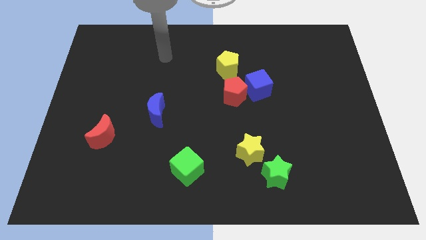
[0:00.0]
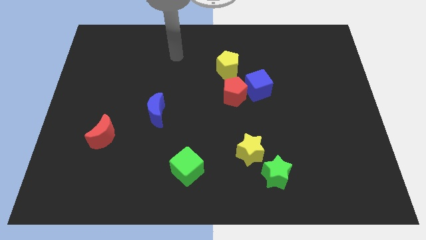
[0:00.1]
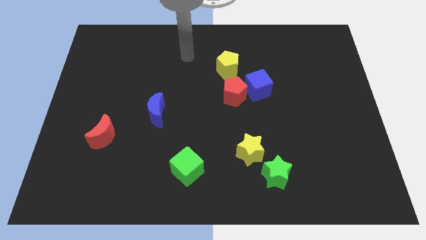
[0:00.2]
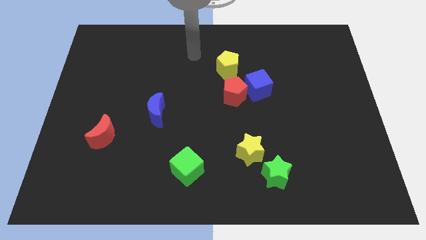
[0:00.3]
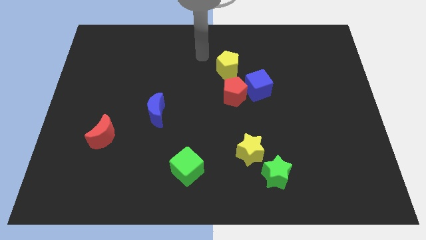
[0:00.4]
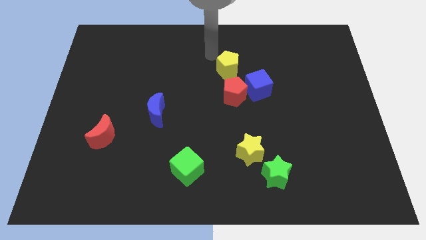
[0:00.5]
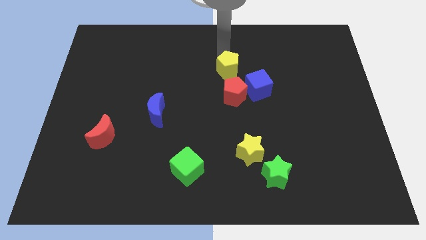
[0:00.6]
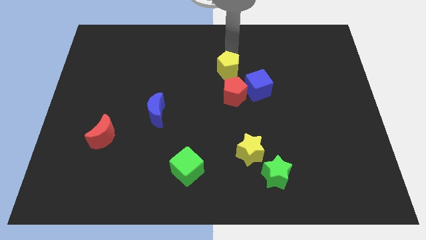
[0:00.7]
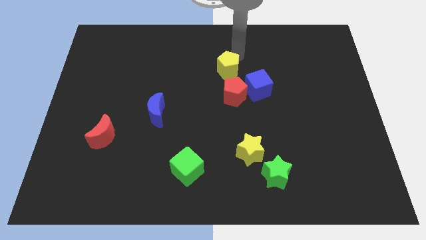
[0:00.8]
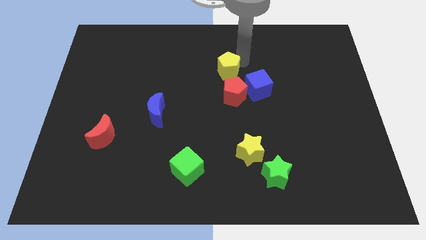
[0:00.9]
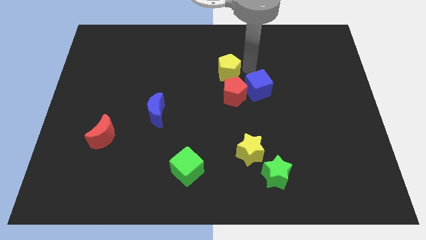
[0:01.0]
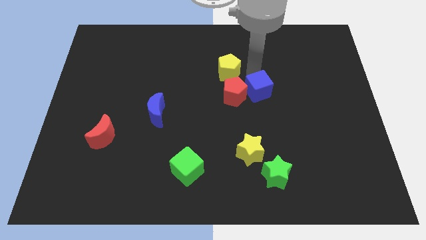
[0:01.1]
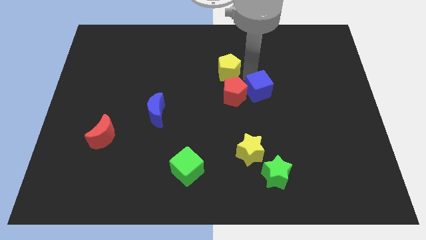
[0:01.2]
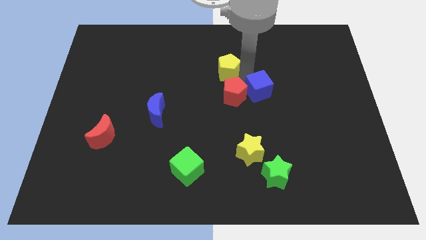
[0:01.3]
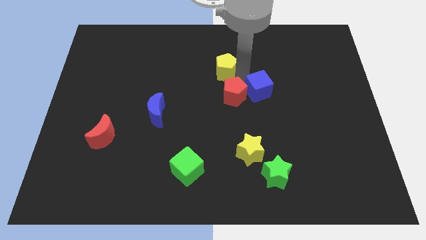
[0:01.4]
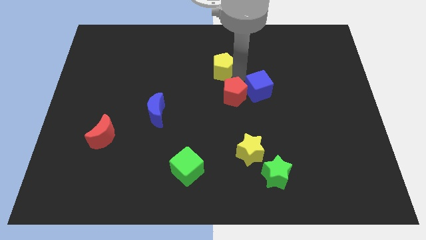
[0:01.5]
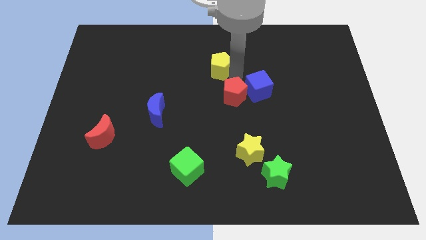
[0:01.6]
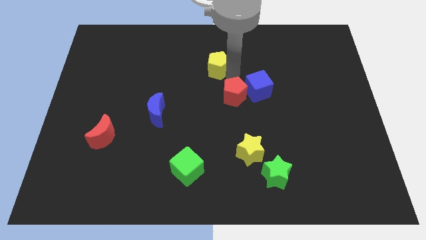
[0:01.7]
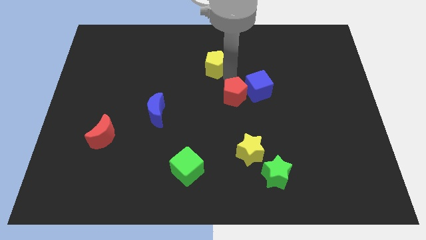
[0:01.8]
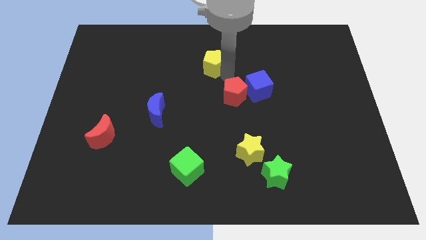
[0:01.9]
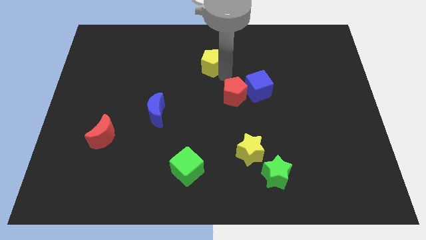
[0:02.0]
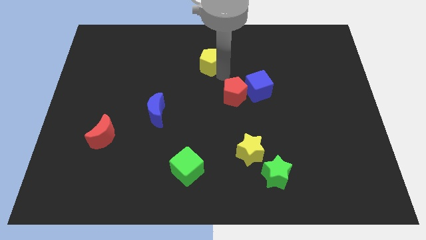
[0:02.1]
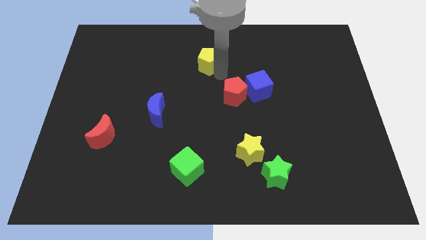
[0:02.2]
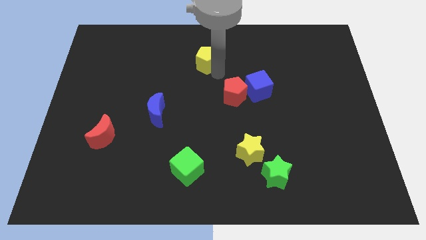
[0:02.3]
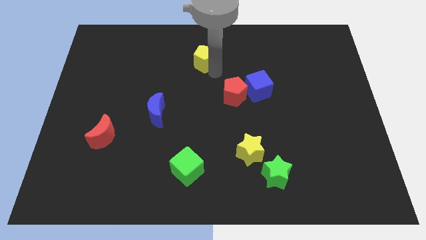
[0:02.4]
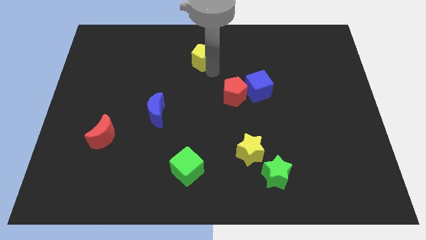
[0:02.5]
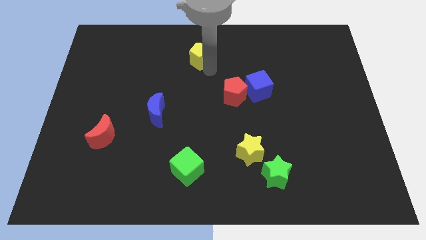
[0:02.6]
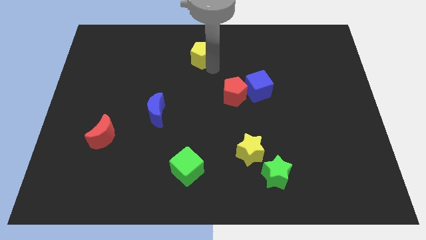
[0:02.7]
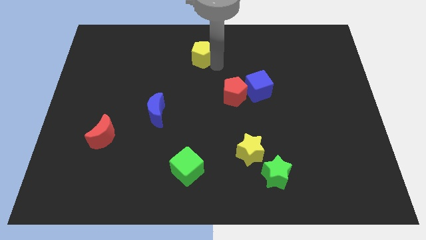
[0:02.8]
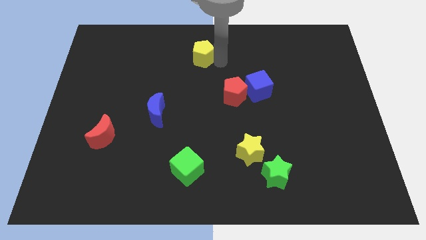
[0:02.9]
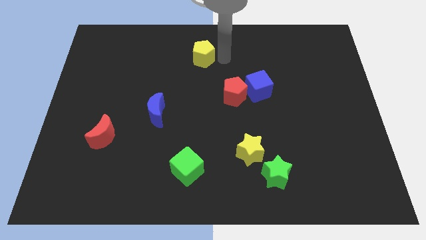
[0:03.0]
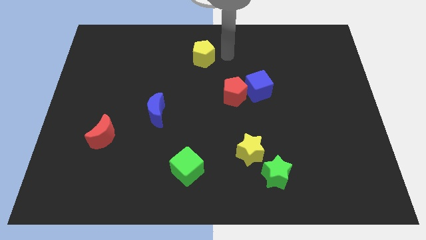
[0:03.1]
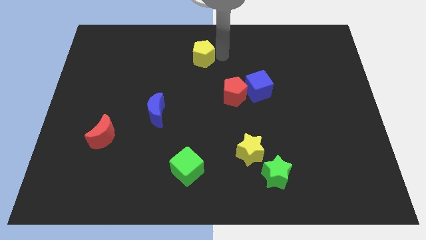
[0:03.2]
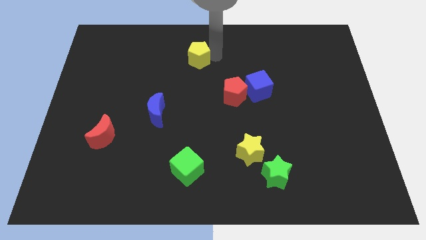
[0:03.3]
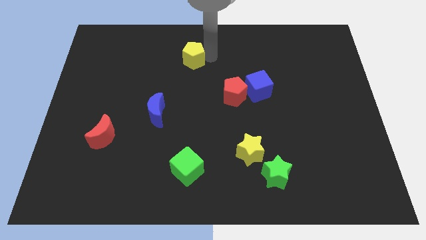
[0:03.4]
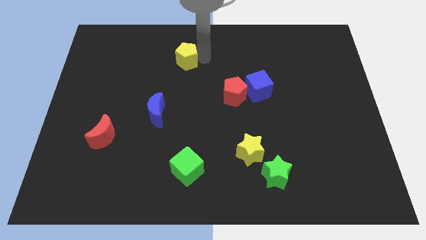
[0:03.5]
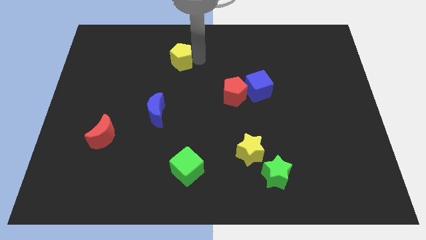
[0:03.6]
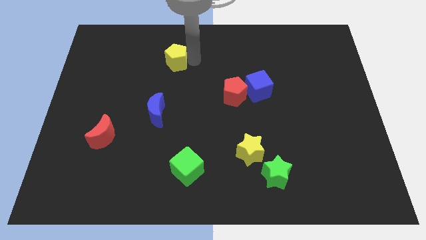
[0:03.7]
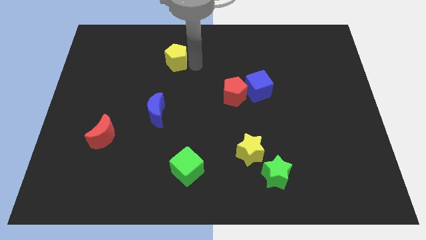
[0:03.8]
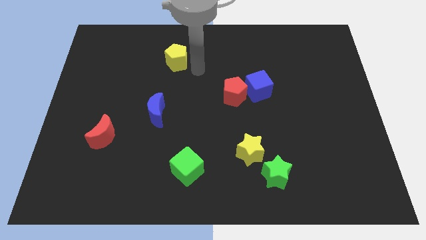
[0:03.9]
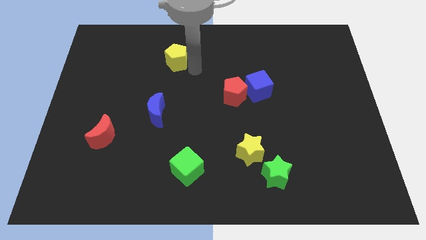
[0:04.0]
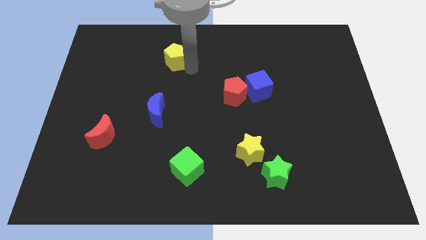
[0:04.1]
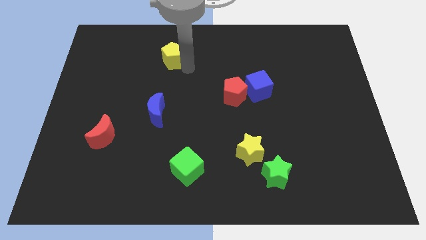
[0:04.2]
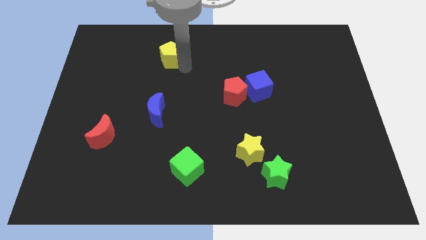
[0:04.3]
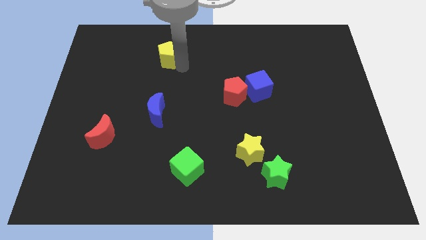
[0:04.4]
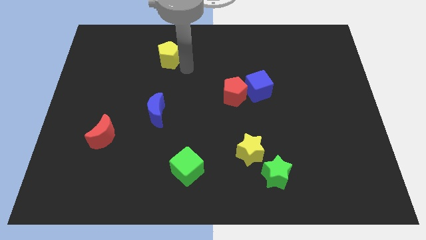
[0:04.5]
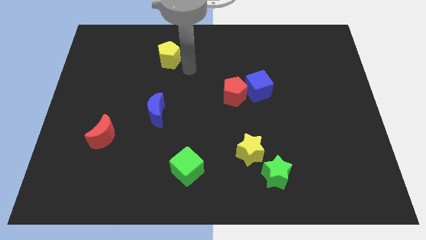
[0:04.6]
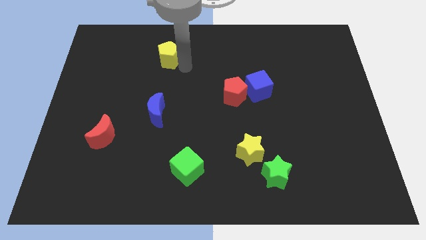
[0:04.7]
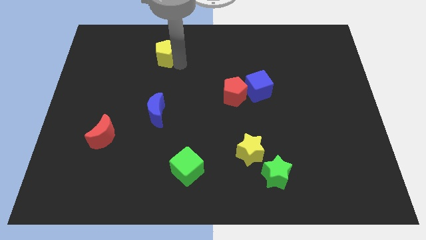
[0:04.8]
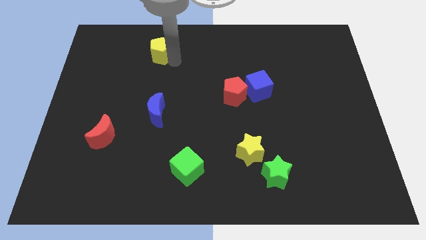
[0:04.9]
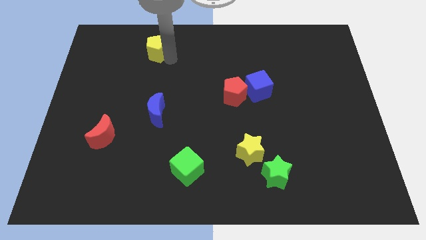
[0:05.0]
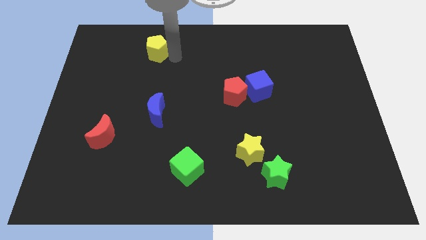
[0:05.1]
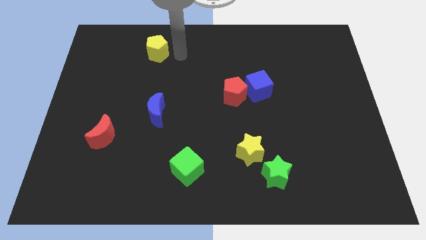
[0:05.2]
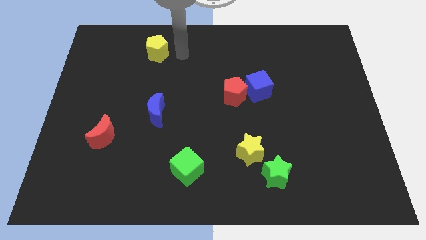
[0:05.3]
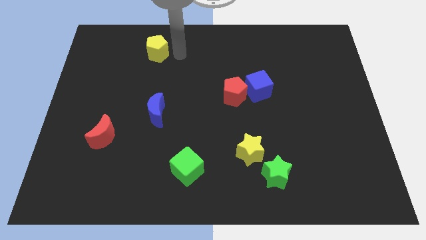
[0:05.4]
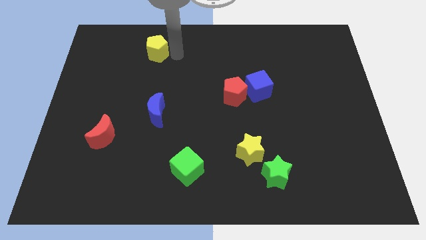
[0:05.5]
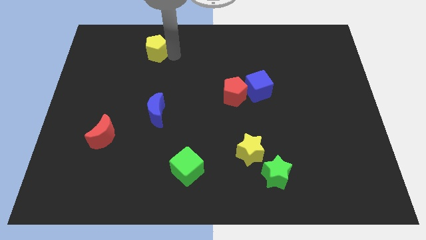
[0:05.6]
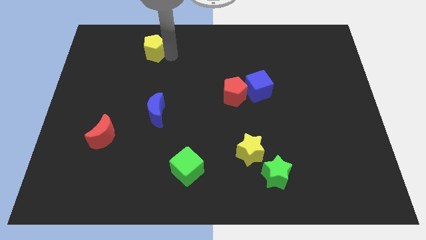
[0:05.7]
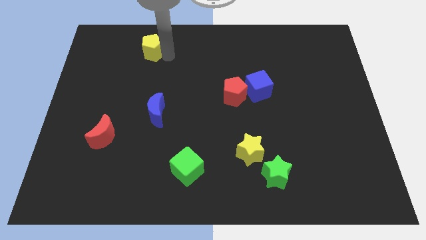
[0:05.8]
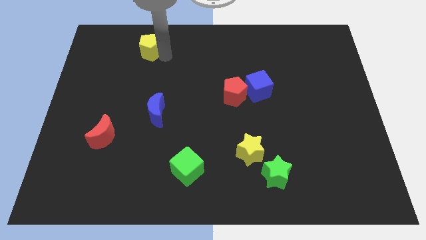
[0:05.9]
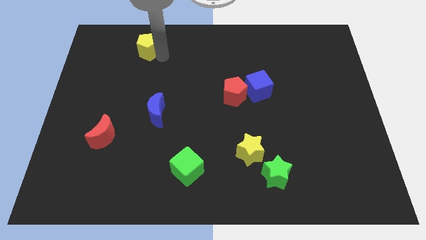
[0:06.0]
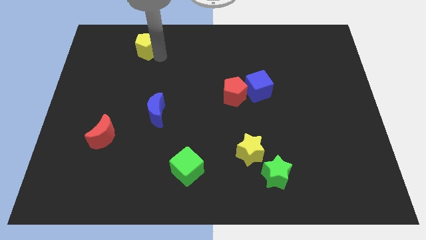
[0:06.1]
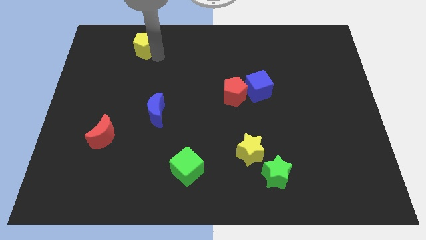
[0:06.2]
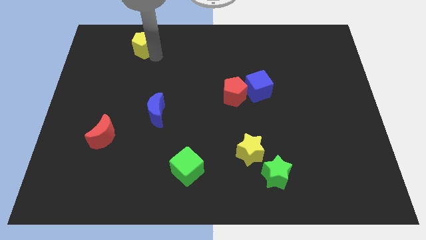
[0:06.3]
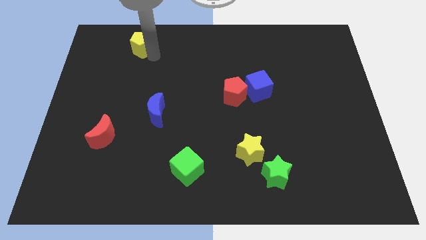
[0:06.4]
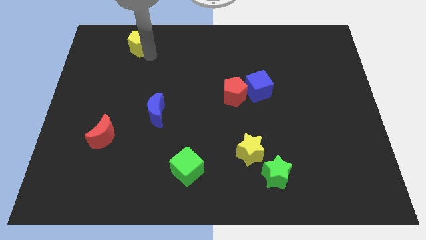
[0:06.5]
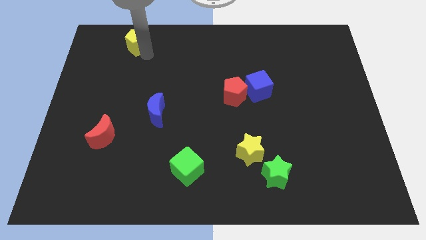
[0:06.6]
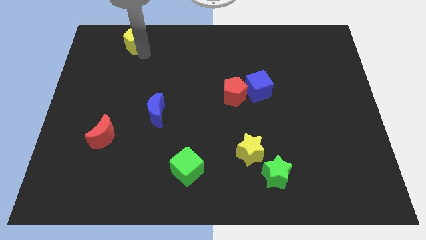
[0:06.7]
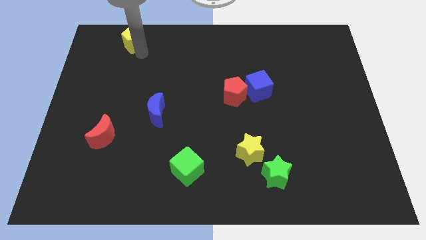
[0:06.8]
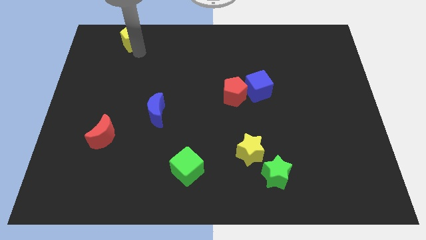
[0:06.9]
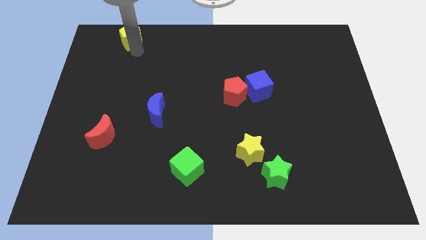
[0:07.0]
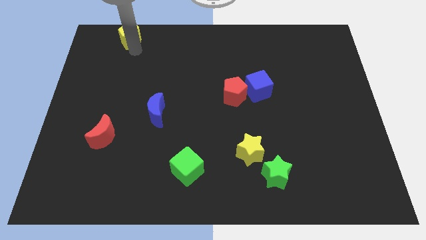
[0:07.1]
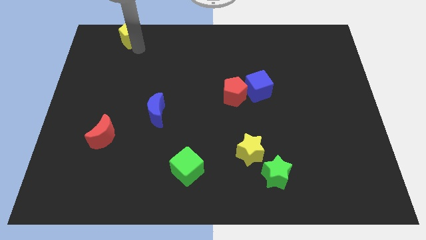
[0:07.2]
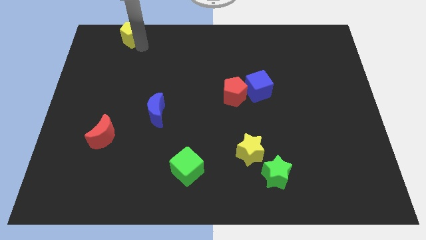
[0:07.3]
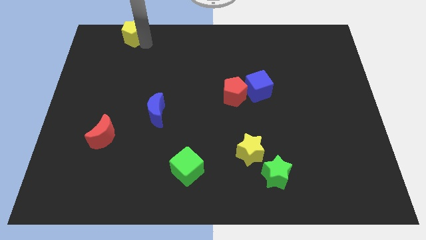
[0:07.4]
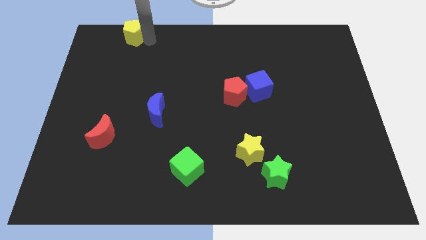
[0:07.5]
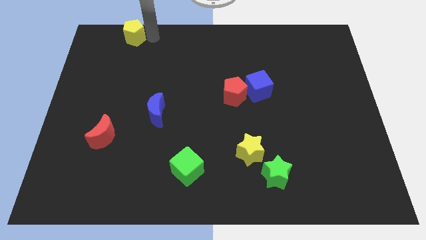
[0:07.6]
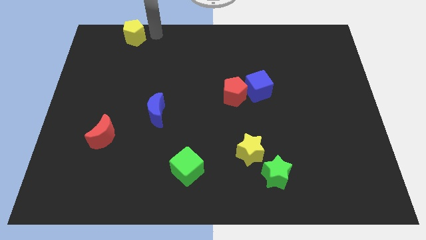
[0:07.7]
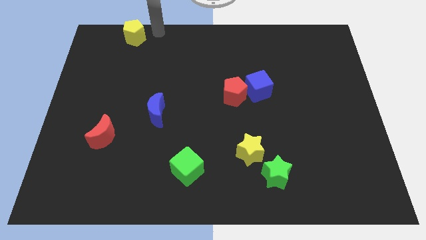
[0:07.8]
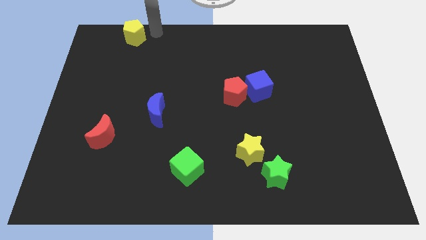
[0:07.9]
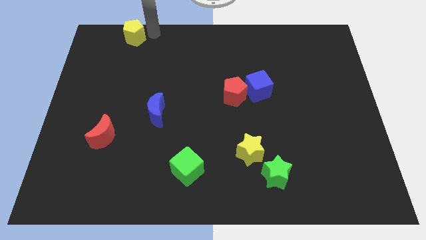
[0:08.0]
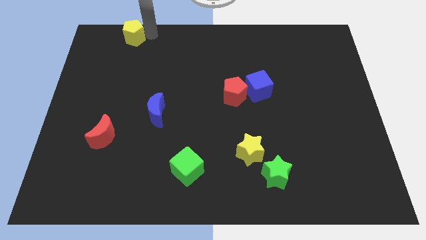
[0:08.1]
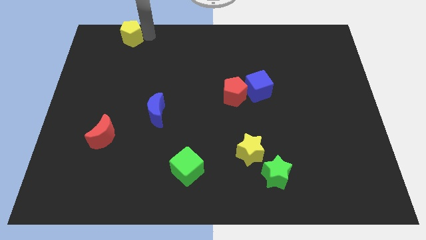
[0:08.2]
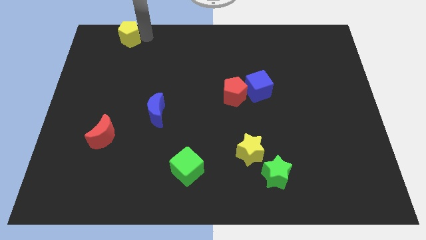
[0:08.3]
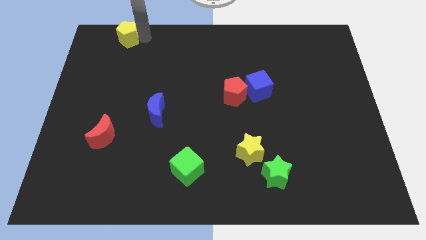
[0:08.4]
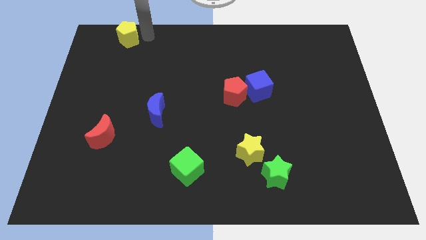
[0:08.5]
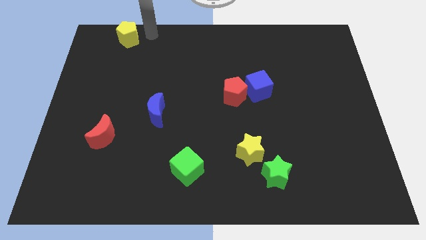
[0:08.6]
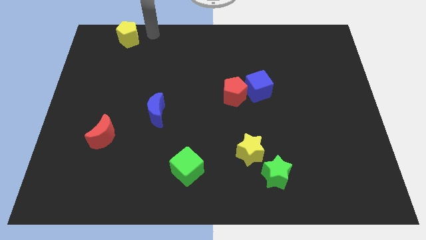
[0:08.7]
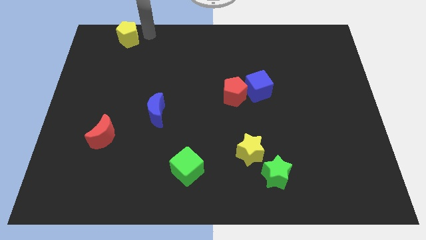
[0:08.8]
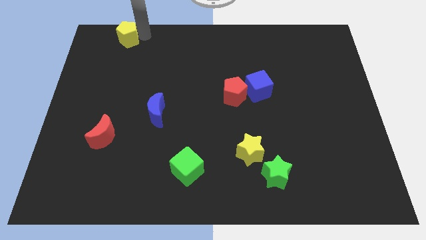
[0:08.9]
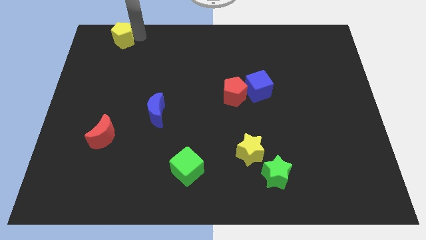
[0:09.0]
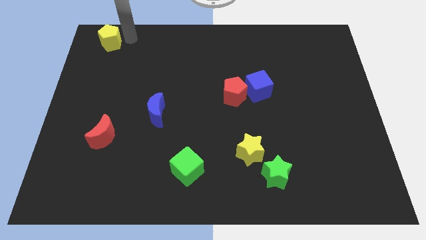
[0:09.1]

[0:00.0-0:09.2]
put the yellow pentagon to the upper left corner
